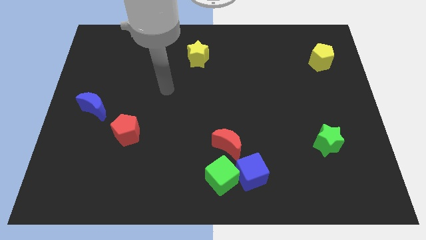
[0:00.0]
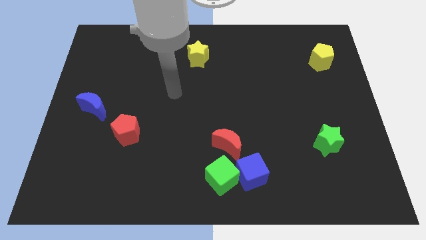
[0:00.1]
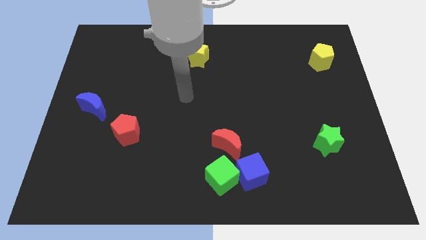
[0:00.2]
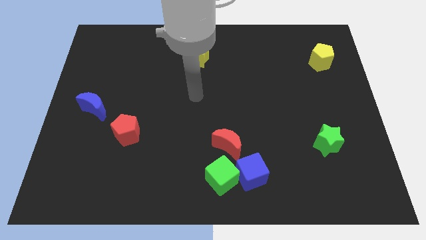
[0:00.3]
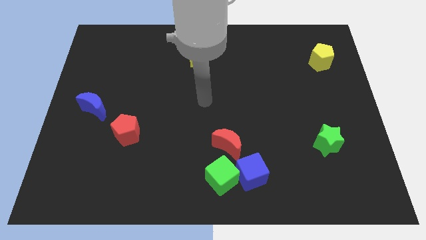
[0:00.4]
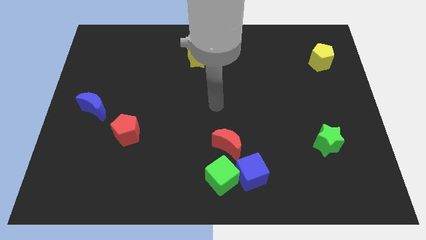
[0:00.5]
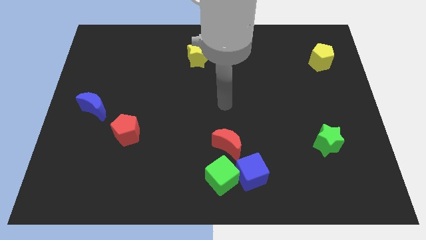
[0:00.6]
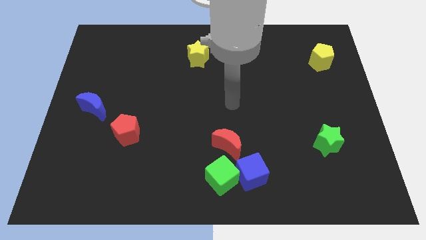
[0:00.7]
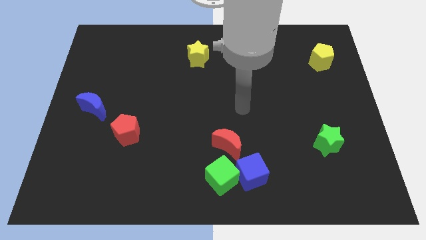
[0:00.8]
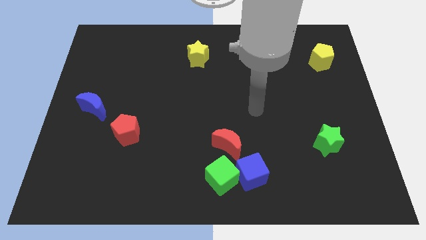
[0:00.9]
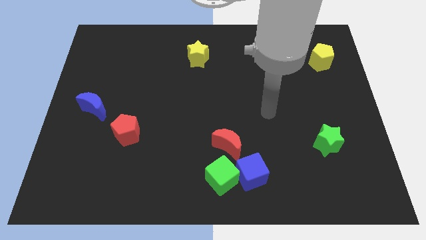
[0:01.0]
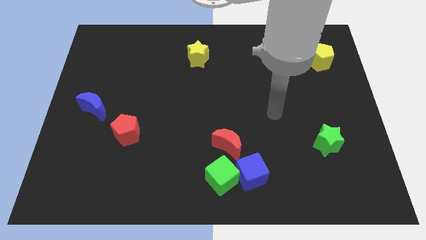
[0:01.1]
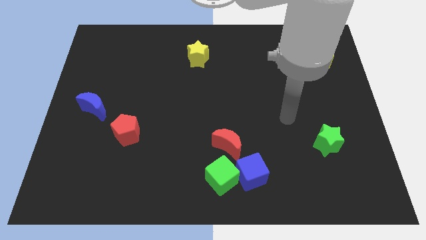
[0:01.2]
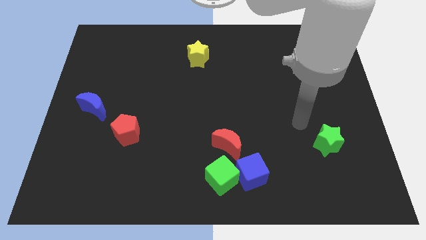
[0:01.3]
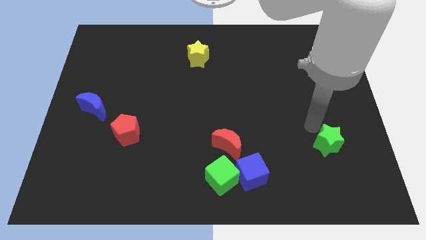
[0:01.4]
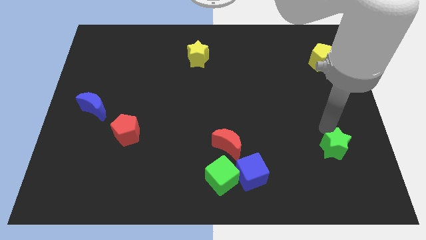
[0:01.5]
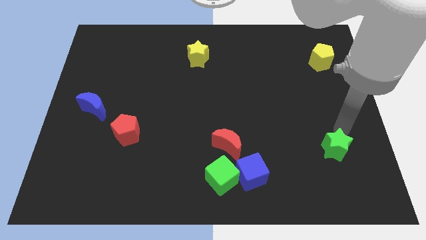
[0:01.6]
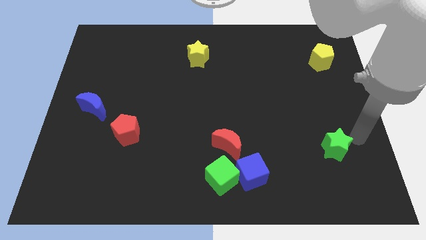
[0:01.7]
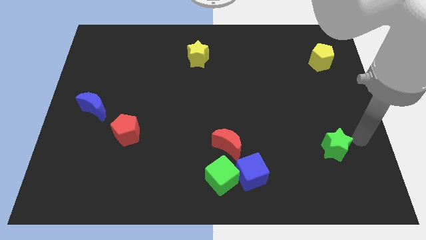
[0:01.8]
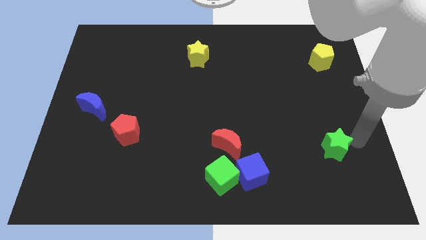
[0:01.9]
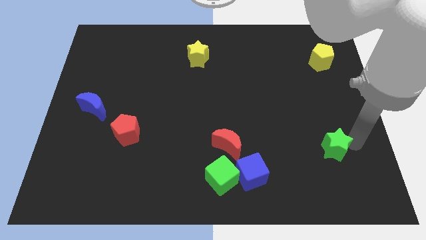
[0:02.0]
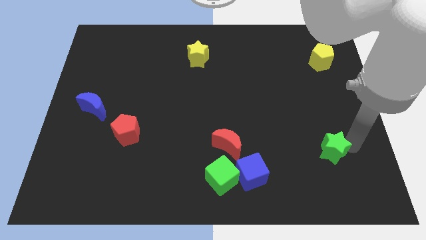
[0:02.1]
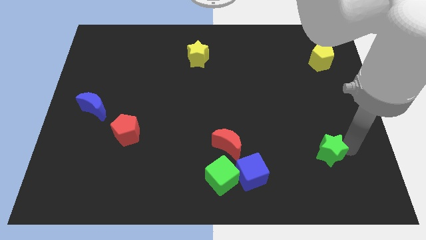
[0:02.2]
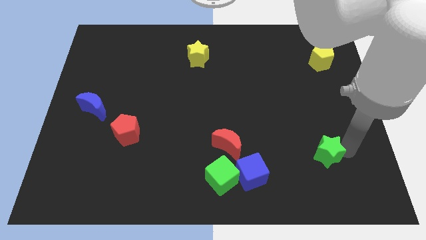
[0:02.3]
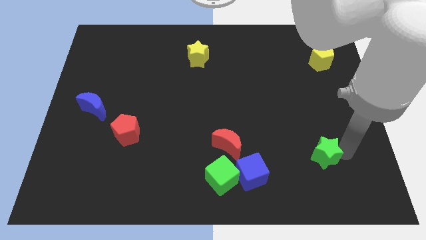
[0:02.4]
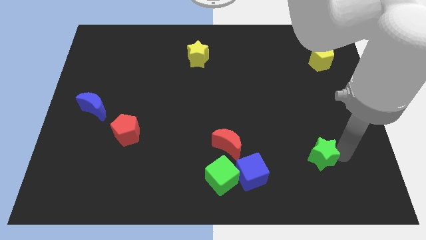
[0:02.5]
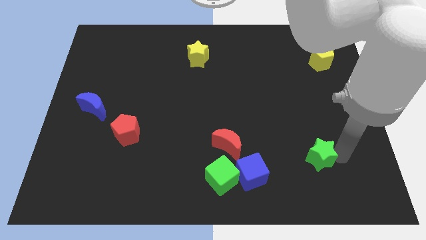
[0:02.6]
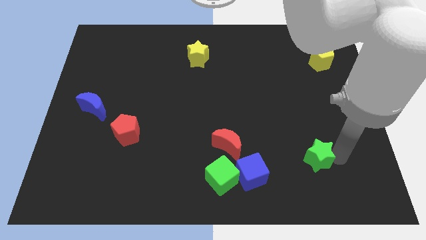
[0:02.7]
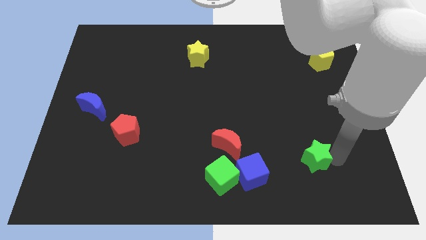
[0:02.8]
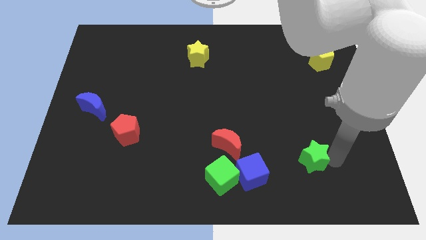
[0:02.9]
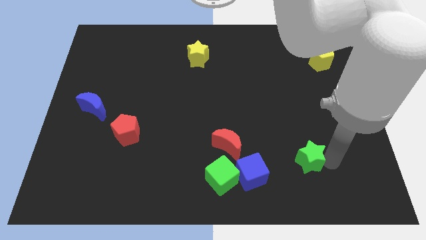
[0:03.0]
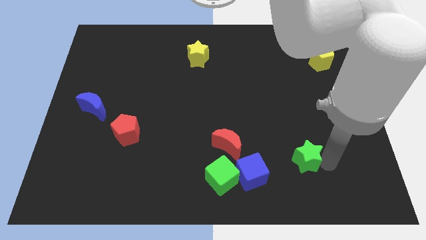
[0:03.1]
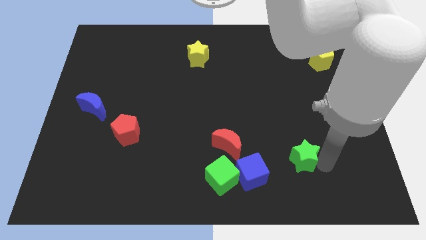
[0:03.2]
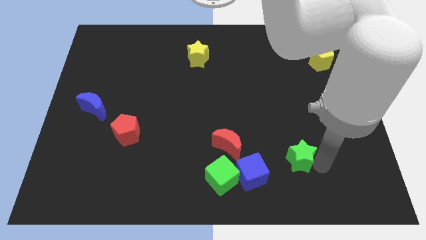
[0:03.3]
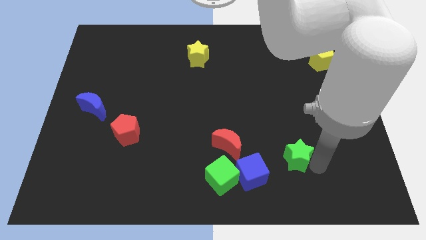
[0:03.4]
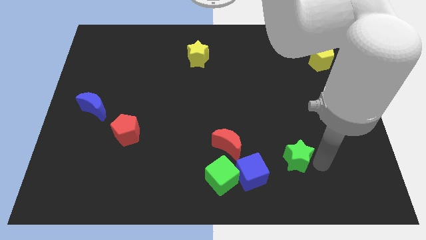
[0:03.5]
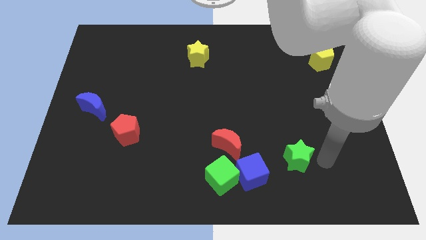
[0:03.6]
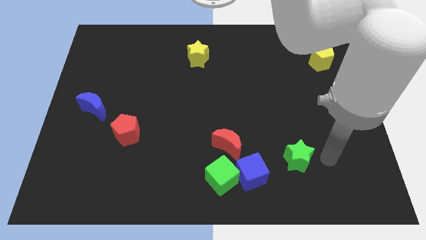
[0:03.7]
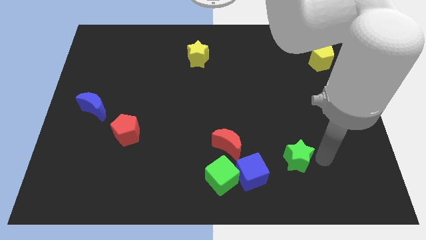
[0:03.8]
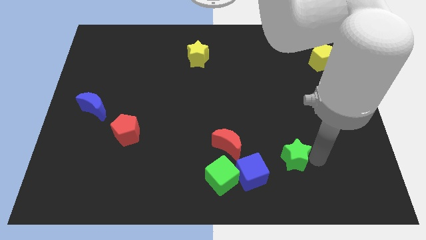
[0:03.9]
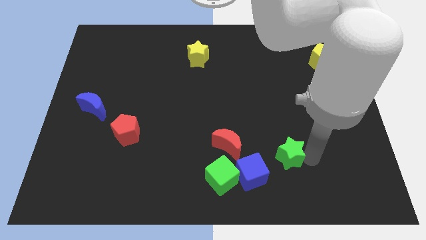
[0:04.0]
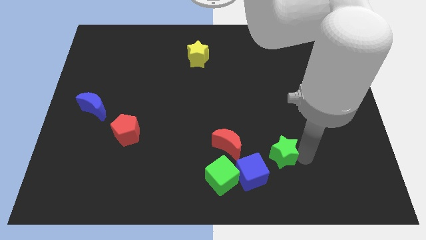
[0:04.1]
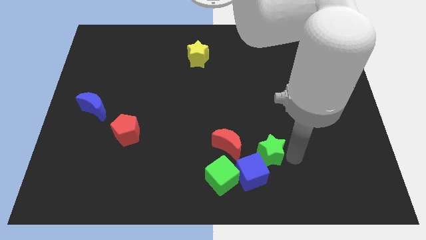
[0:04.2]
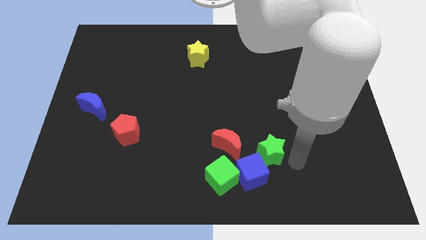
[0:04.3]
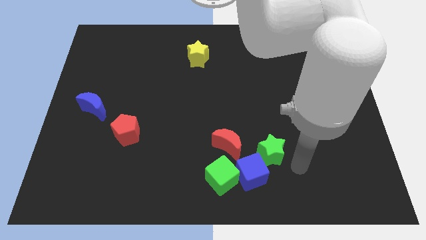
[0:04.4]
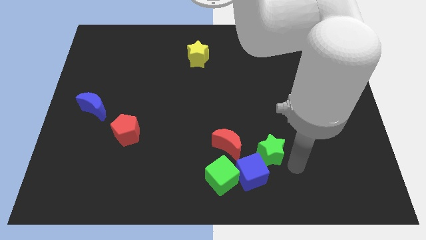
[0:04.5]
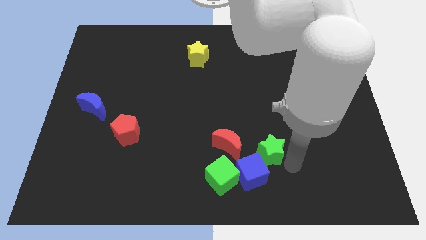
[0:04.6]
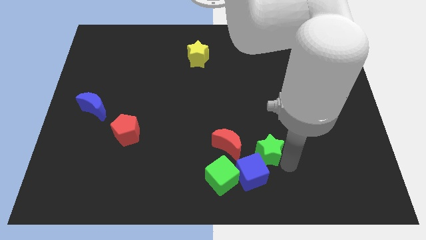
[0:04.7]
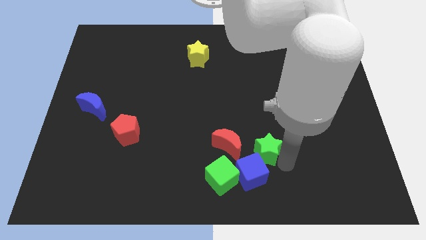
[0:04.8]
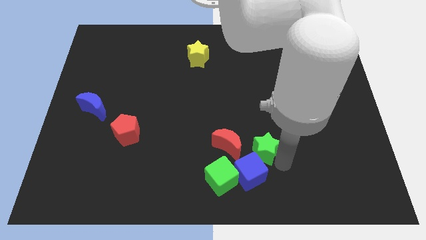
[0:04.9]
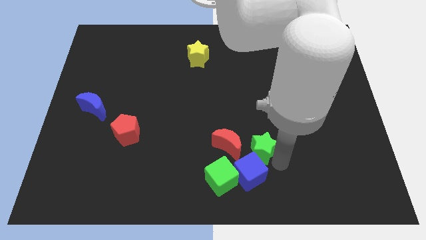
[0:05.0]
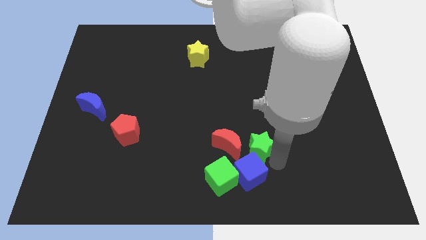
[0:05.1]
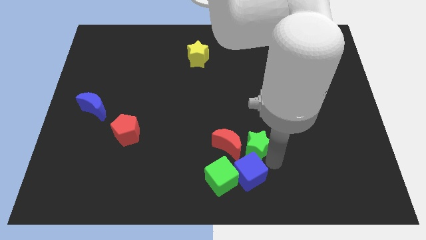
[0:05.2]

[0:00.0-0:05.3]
slide the green star next to the red moon

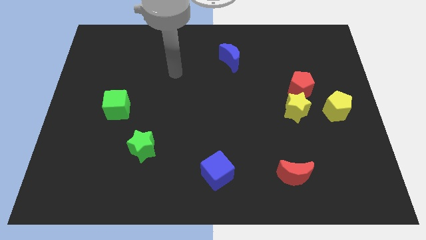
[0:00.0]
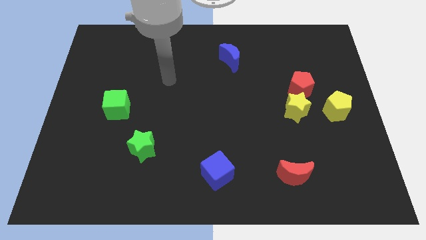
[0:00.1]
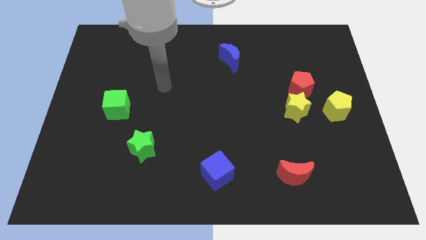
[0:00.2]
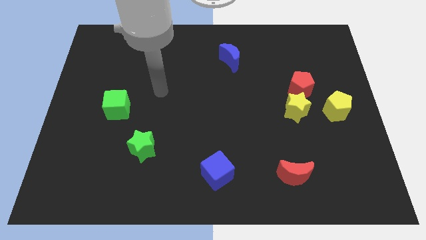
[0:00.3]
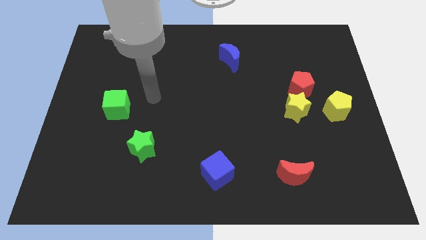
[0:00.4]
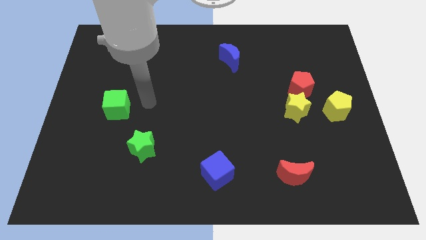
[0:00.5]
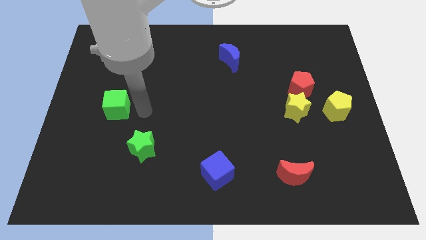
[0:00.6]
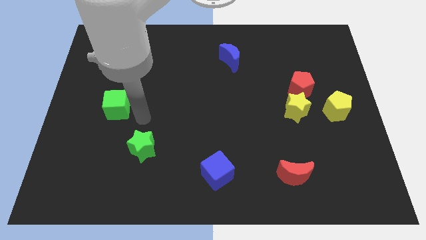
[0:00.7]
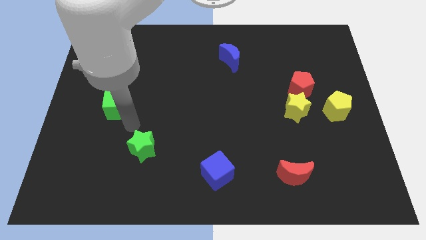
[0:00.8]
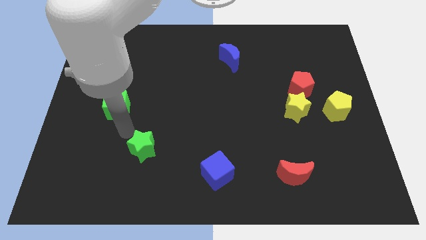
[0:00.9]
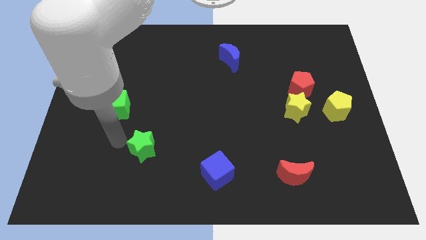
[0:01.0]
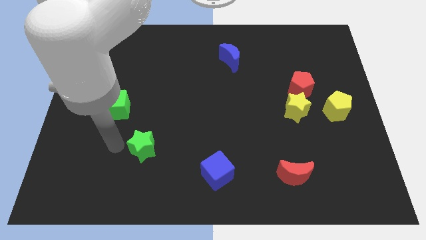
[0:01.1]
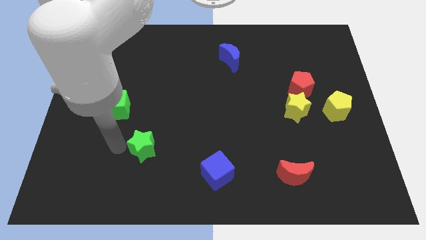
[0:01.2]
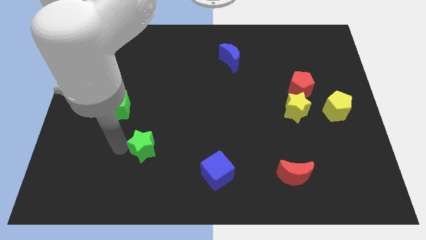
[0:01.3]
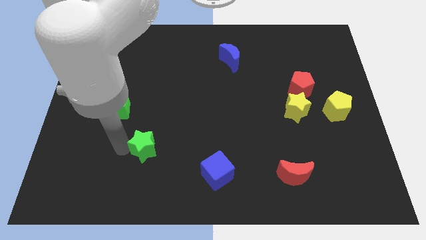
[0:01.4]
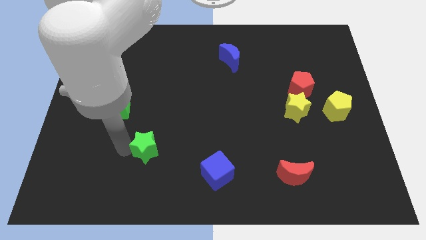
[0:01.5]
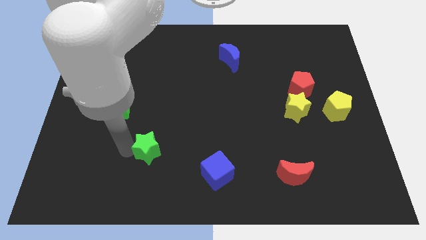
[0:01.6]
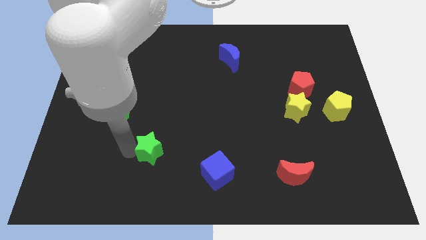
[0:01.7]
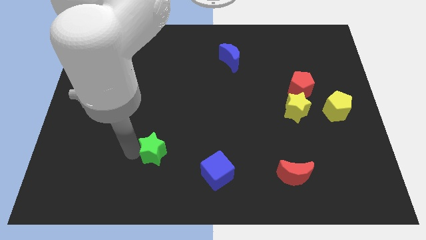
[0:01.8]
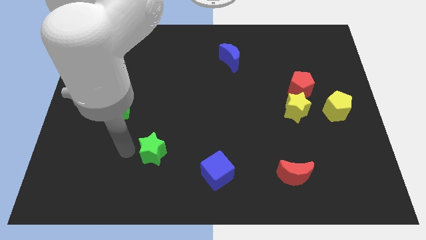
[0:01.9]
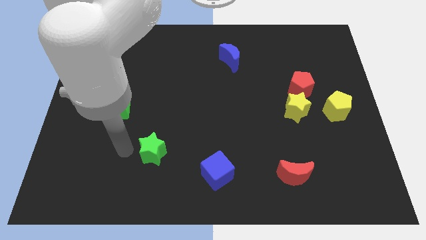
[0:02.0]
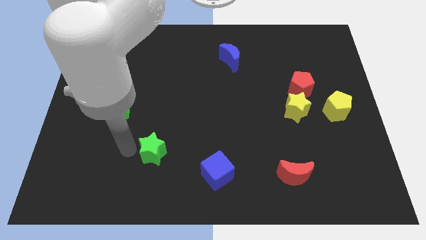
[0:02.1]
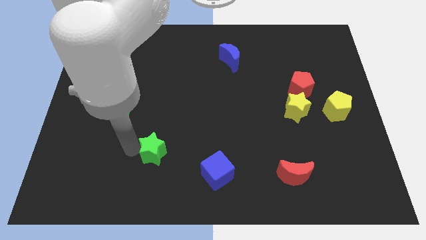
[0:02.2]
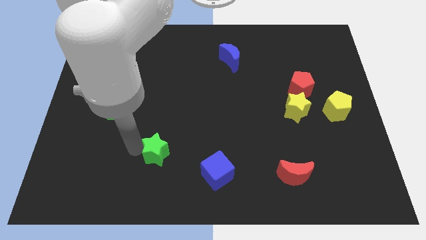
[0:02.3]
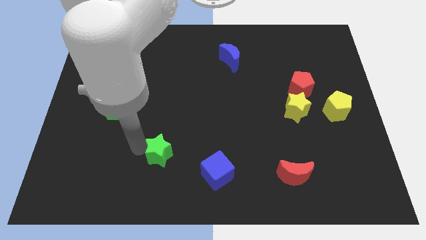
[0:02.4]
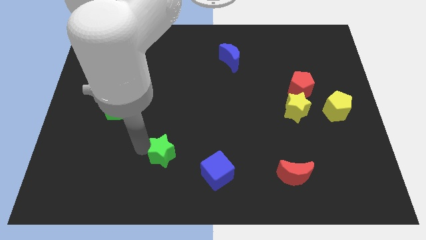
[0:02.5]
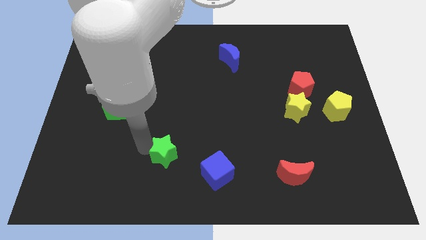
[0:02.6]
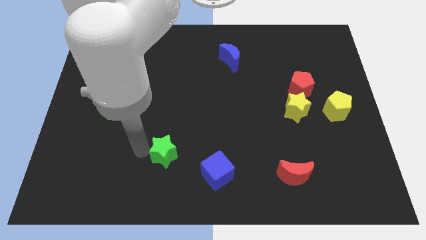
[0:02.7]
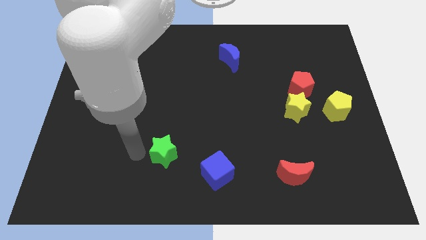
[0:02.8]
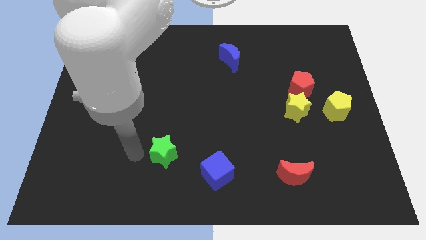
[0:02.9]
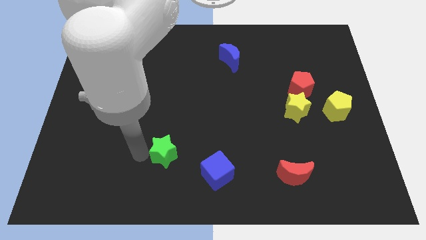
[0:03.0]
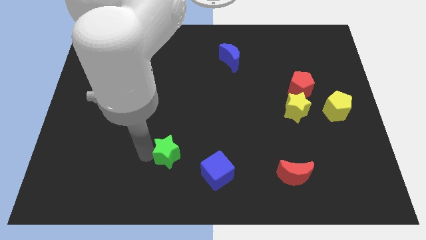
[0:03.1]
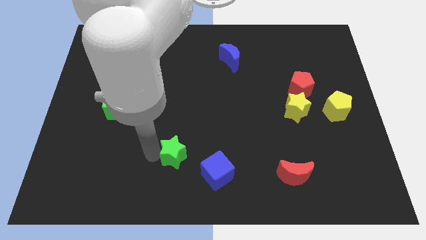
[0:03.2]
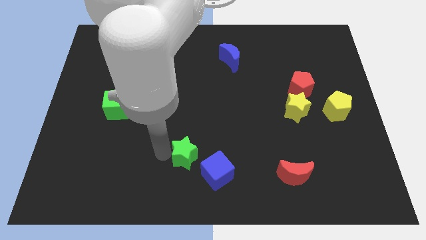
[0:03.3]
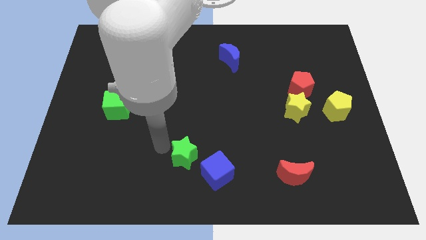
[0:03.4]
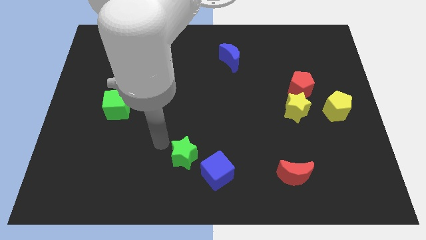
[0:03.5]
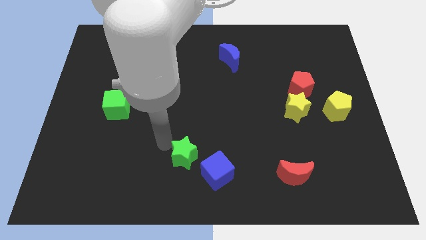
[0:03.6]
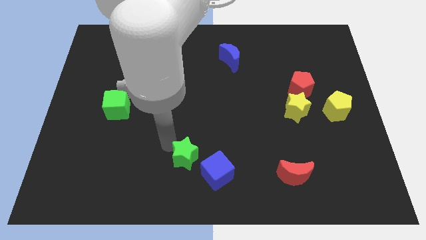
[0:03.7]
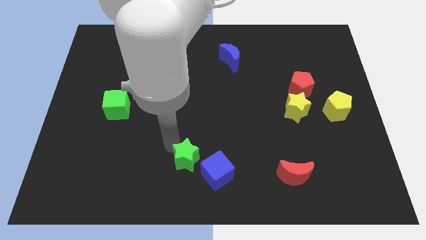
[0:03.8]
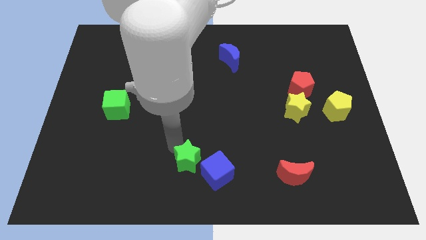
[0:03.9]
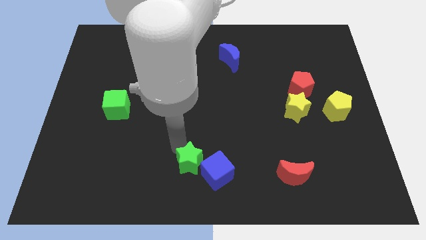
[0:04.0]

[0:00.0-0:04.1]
move the green star close to the blue cube
